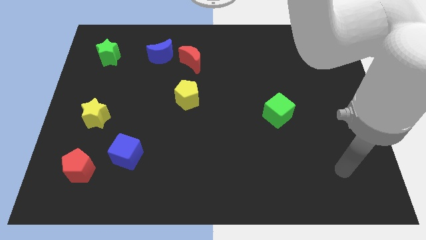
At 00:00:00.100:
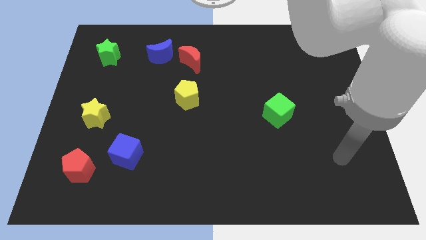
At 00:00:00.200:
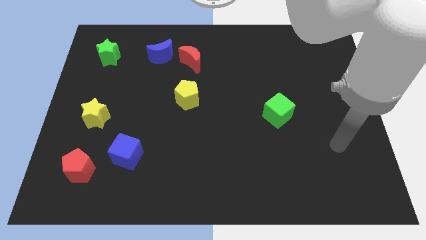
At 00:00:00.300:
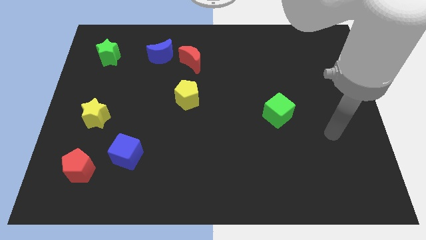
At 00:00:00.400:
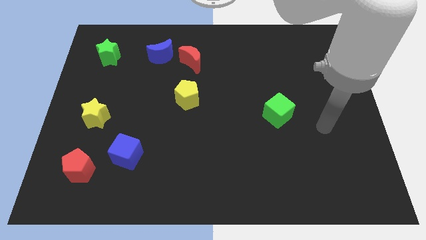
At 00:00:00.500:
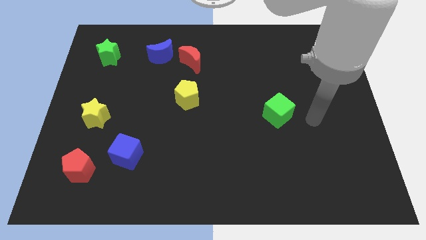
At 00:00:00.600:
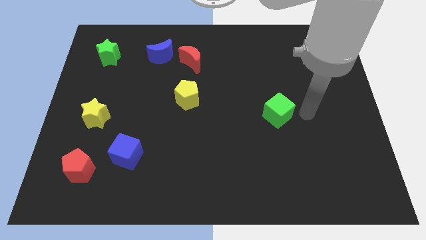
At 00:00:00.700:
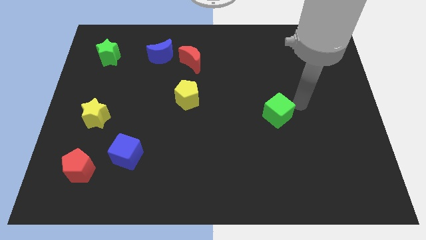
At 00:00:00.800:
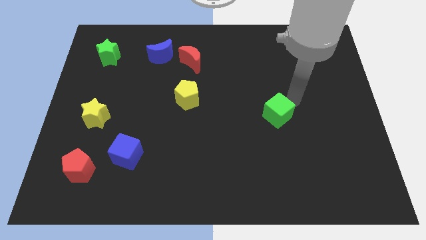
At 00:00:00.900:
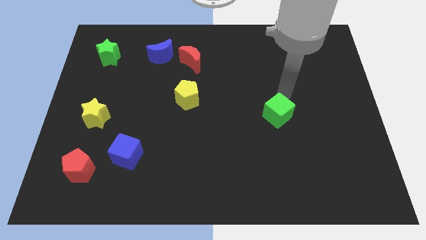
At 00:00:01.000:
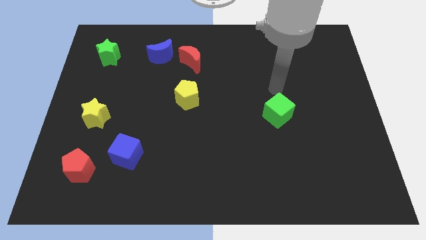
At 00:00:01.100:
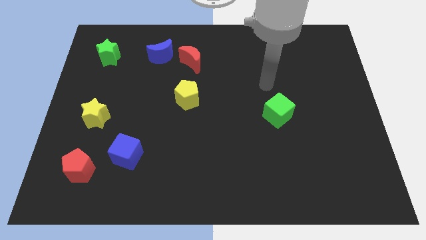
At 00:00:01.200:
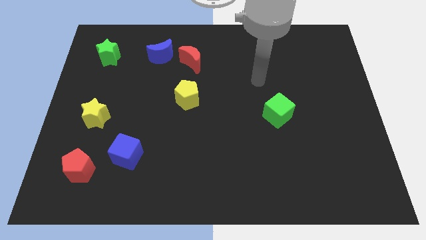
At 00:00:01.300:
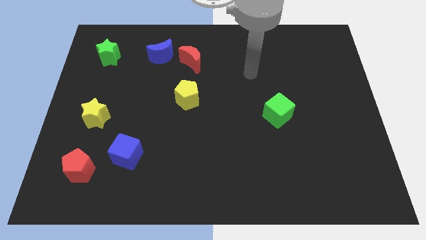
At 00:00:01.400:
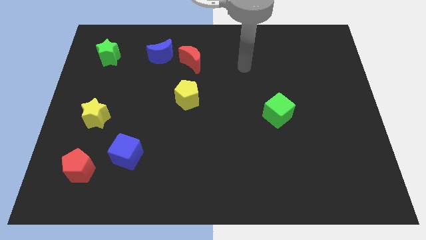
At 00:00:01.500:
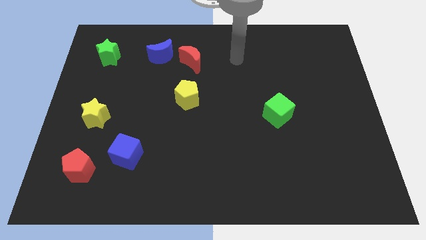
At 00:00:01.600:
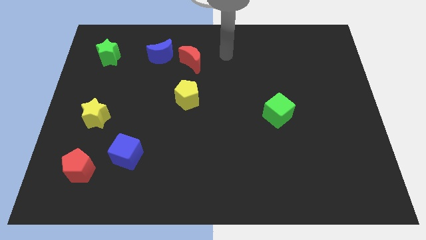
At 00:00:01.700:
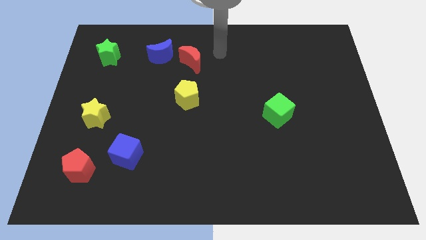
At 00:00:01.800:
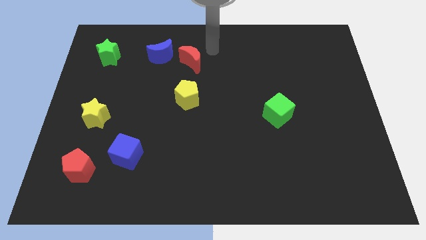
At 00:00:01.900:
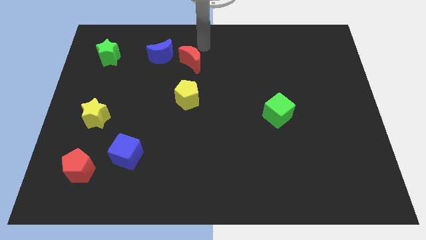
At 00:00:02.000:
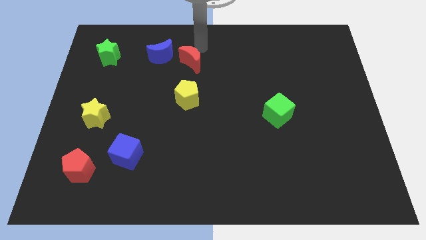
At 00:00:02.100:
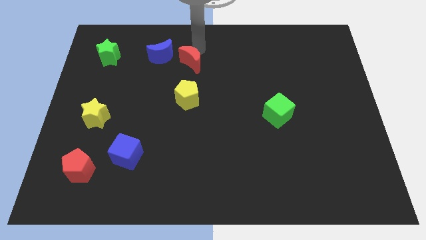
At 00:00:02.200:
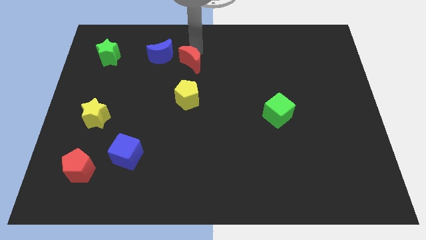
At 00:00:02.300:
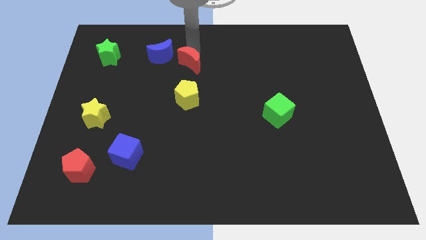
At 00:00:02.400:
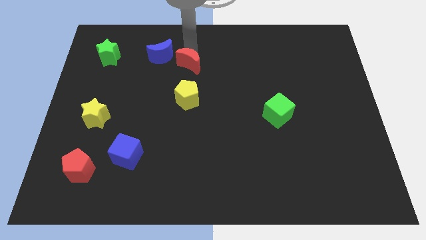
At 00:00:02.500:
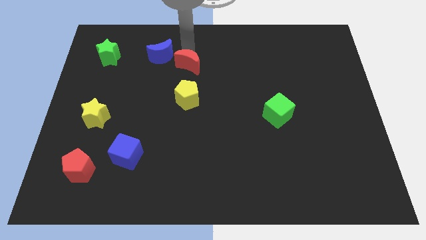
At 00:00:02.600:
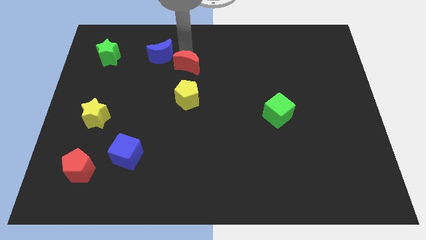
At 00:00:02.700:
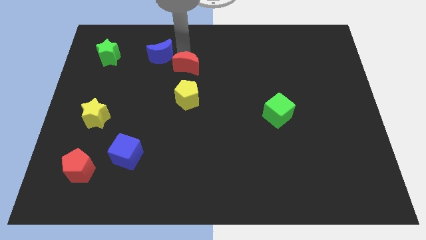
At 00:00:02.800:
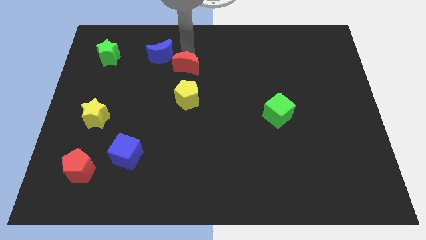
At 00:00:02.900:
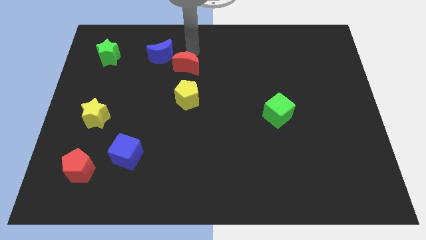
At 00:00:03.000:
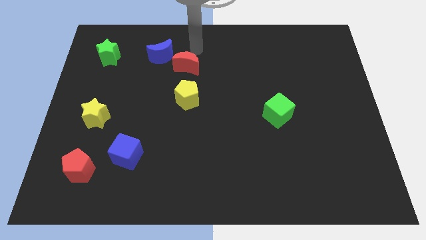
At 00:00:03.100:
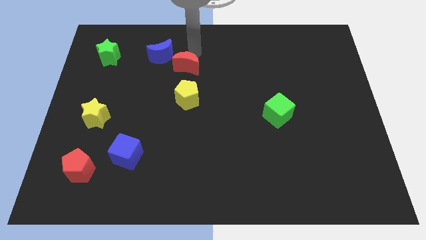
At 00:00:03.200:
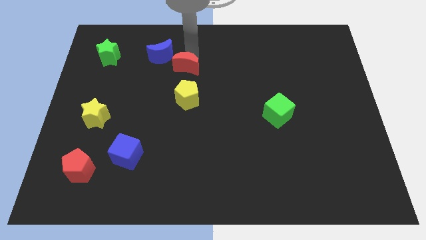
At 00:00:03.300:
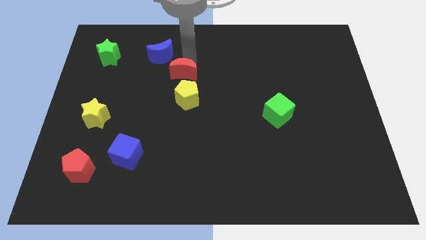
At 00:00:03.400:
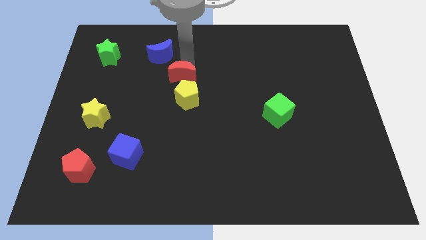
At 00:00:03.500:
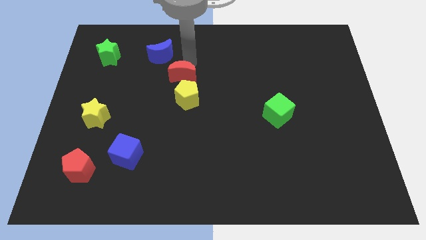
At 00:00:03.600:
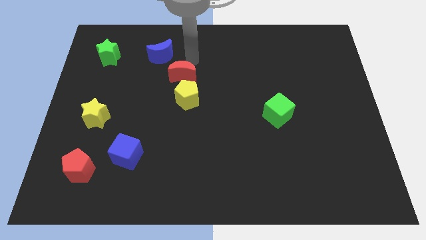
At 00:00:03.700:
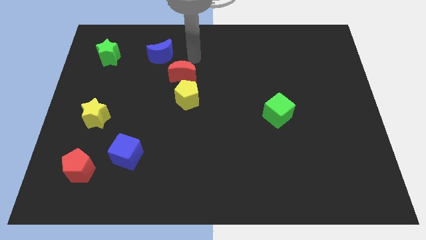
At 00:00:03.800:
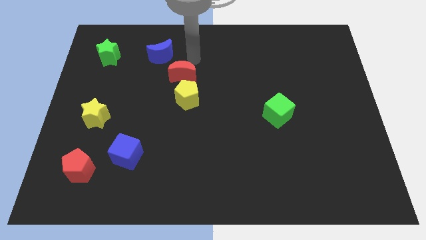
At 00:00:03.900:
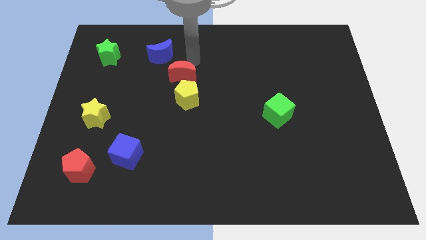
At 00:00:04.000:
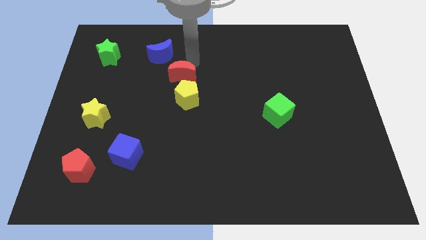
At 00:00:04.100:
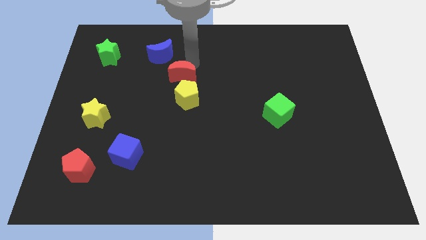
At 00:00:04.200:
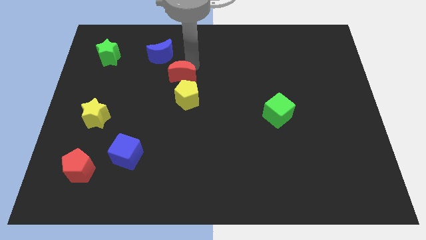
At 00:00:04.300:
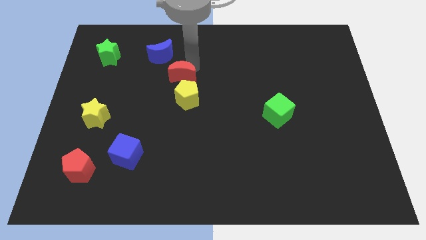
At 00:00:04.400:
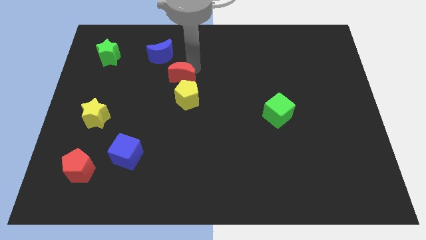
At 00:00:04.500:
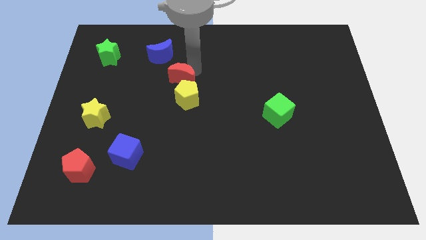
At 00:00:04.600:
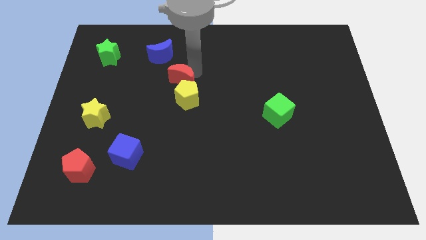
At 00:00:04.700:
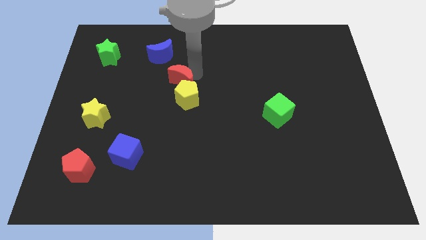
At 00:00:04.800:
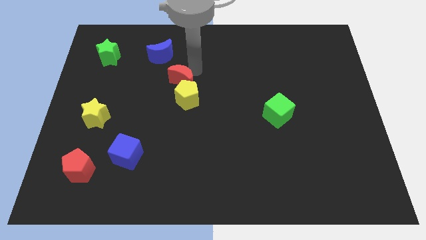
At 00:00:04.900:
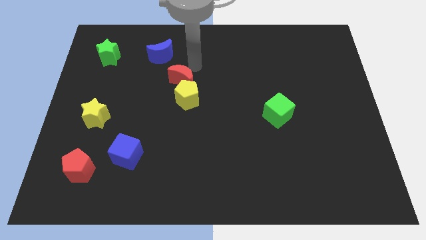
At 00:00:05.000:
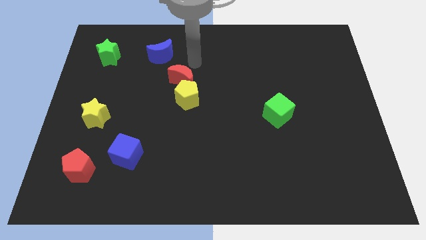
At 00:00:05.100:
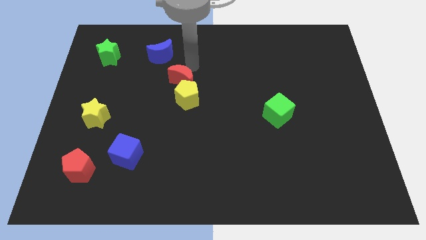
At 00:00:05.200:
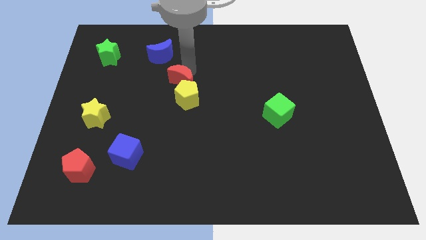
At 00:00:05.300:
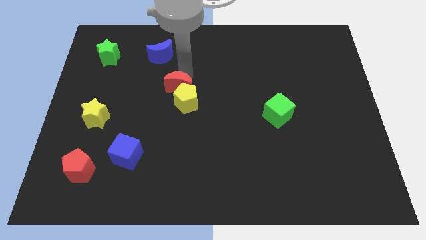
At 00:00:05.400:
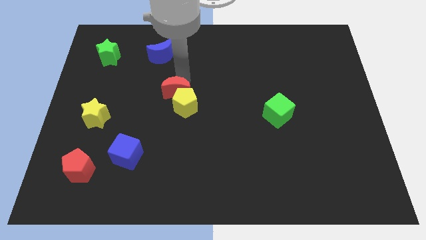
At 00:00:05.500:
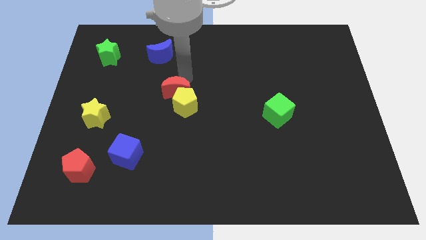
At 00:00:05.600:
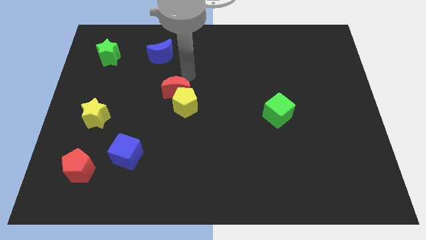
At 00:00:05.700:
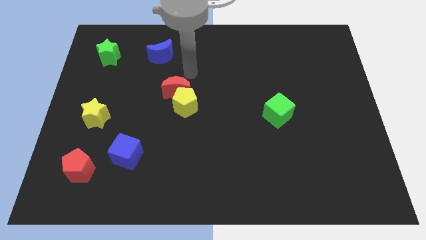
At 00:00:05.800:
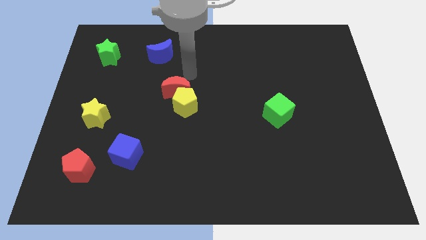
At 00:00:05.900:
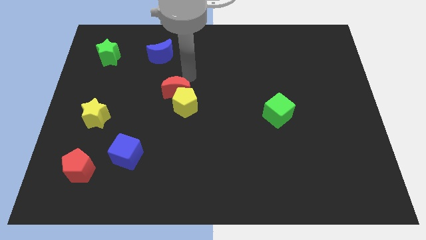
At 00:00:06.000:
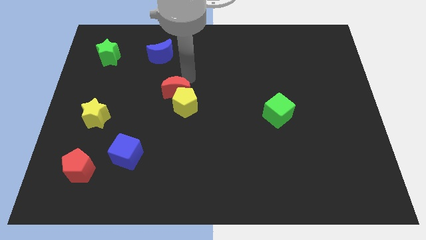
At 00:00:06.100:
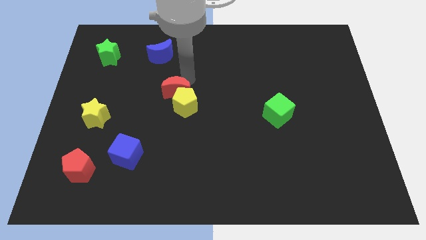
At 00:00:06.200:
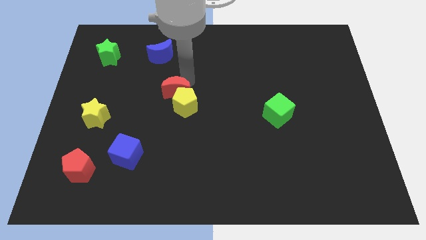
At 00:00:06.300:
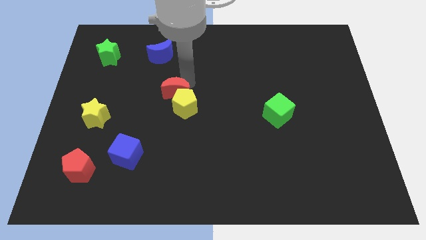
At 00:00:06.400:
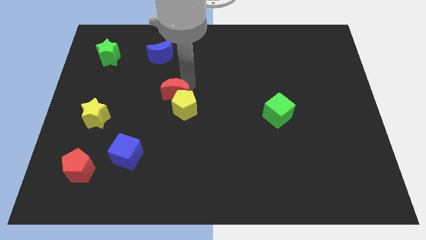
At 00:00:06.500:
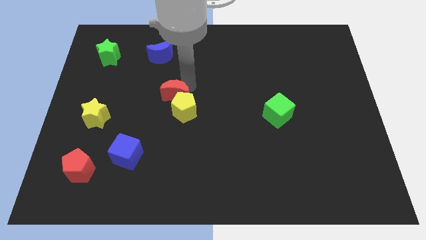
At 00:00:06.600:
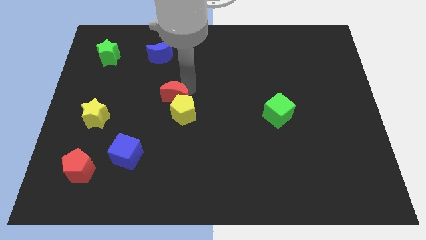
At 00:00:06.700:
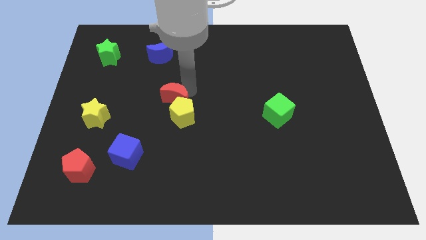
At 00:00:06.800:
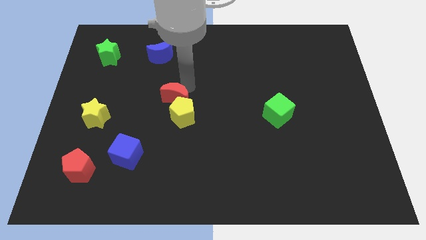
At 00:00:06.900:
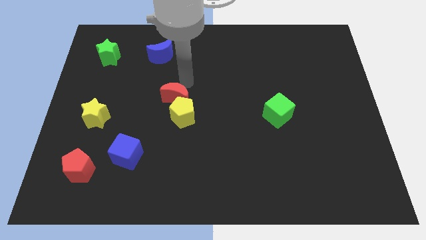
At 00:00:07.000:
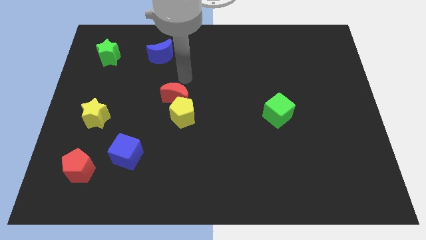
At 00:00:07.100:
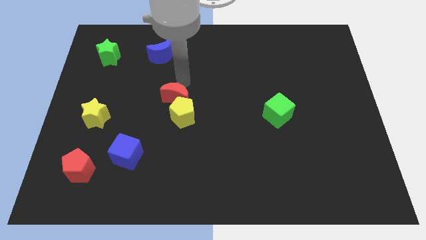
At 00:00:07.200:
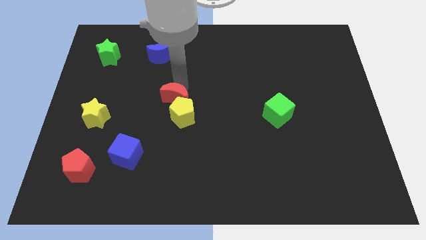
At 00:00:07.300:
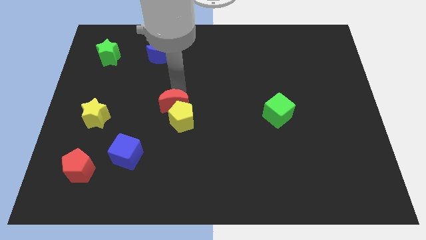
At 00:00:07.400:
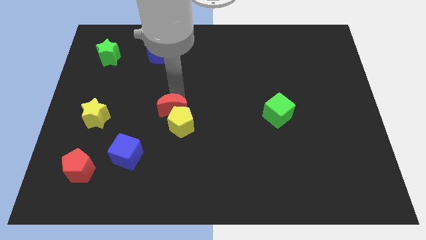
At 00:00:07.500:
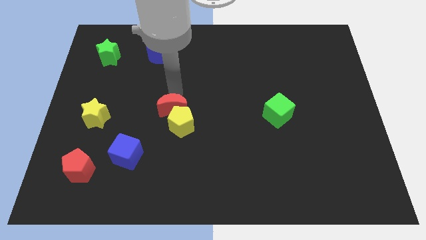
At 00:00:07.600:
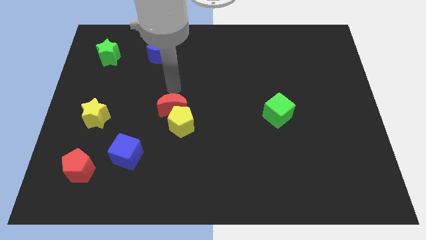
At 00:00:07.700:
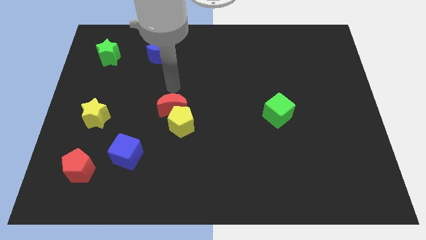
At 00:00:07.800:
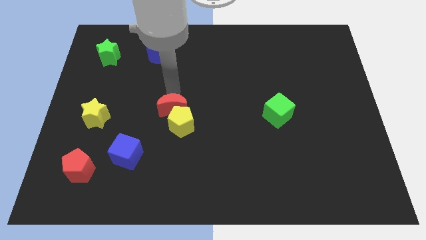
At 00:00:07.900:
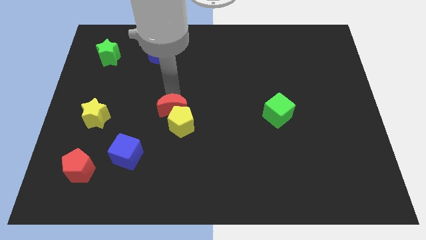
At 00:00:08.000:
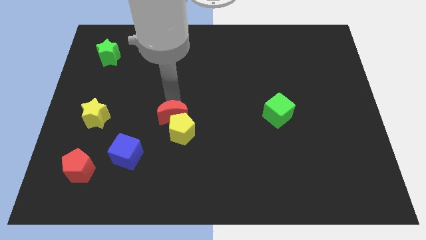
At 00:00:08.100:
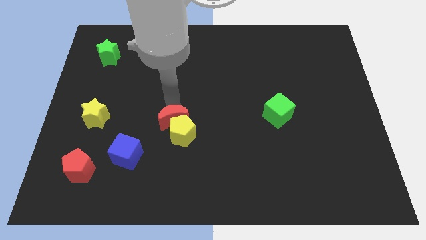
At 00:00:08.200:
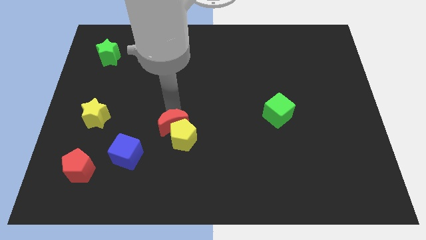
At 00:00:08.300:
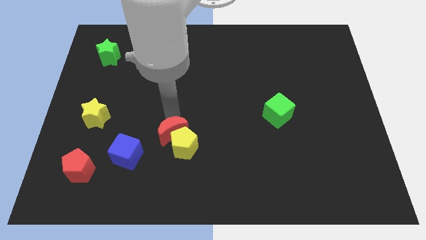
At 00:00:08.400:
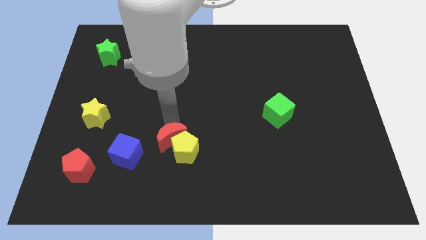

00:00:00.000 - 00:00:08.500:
move the red moon to the right of the blue cube
